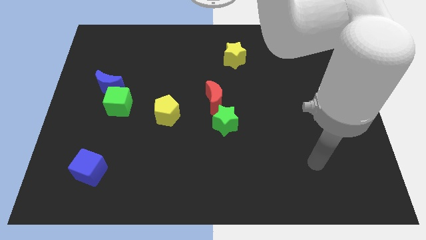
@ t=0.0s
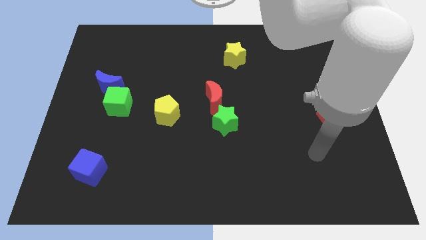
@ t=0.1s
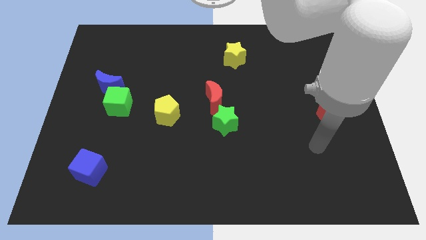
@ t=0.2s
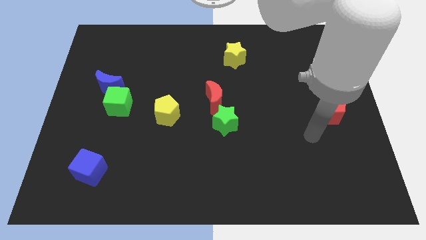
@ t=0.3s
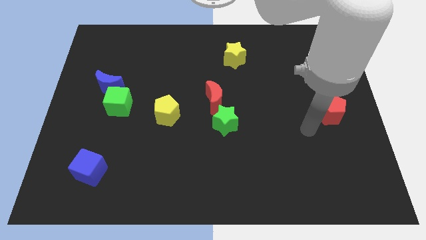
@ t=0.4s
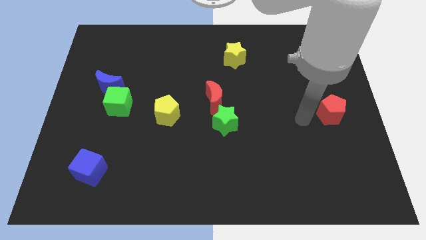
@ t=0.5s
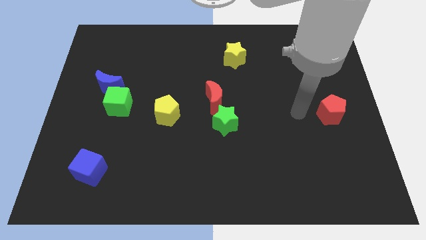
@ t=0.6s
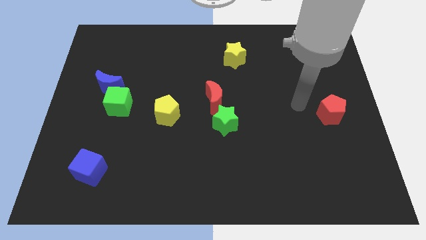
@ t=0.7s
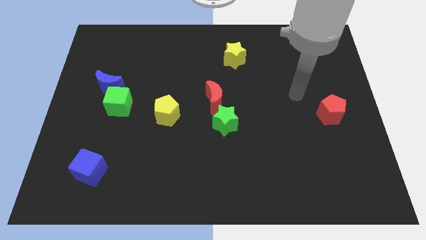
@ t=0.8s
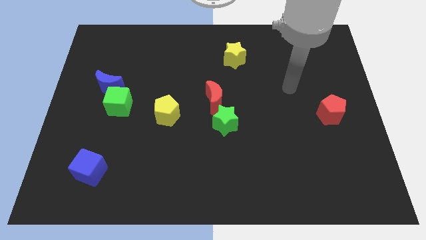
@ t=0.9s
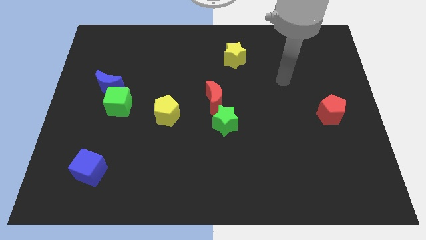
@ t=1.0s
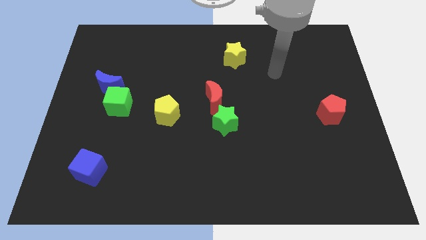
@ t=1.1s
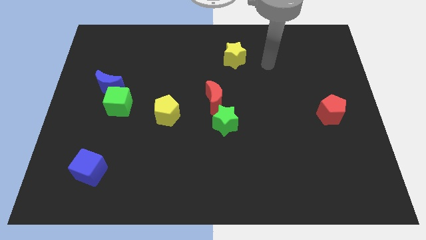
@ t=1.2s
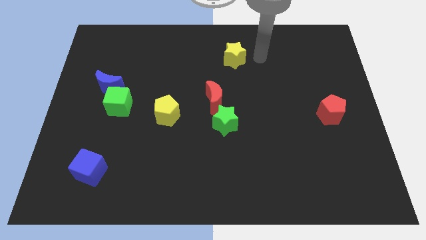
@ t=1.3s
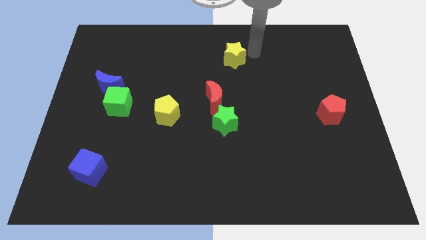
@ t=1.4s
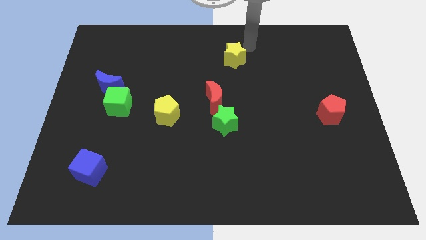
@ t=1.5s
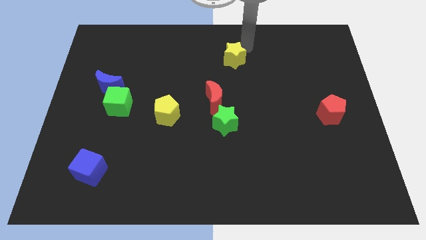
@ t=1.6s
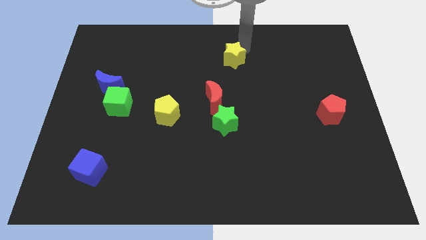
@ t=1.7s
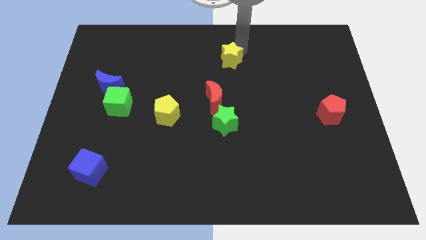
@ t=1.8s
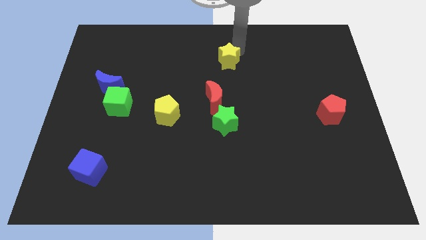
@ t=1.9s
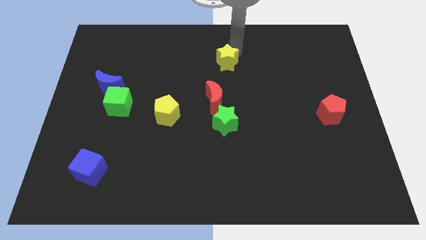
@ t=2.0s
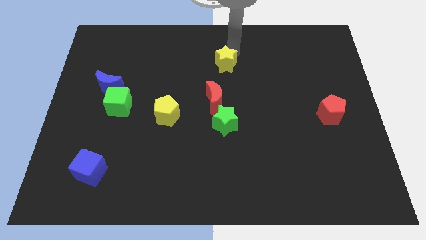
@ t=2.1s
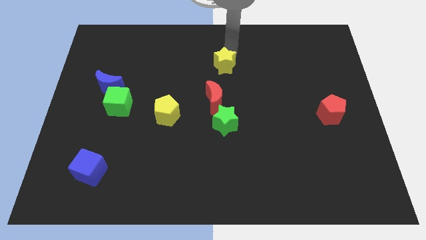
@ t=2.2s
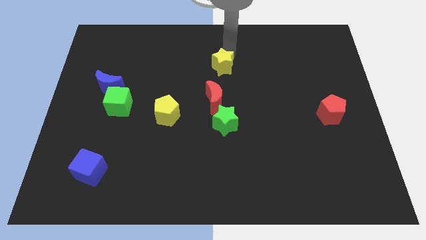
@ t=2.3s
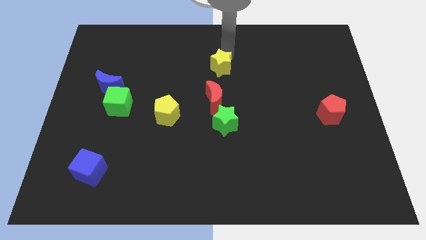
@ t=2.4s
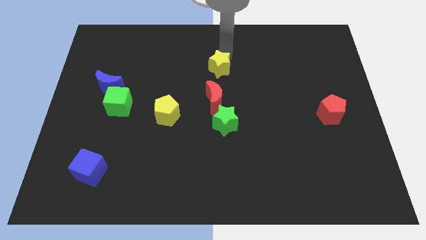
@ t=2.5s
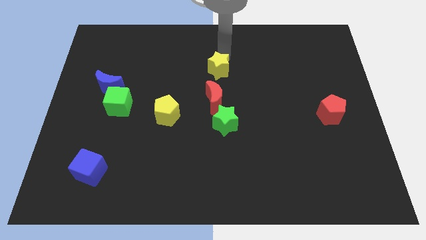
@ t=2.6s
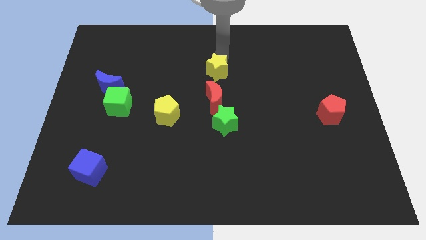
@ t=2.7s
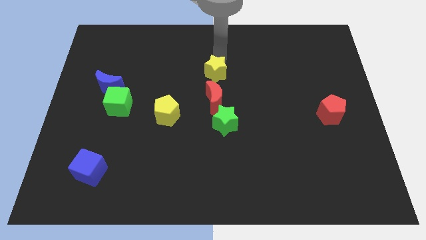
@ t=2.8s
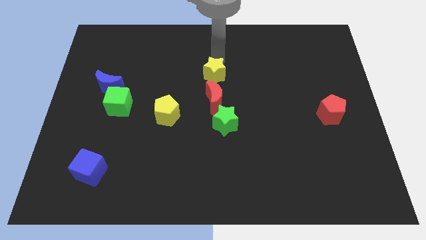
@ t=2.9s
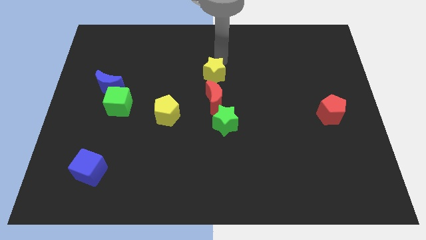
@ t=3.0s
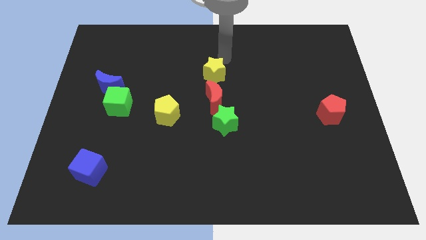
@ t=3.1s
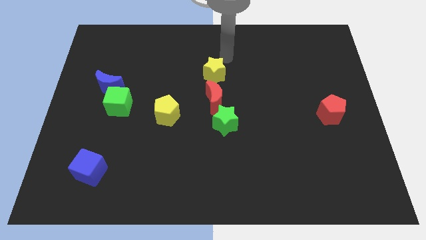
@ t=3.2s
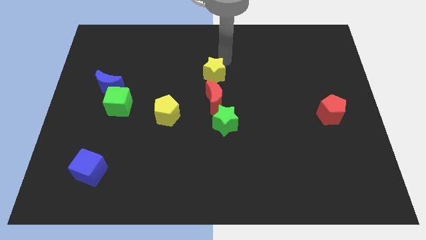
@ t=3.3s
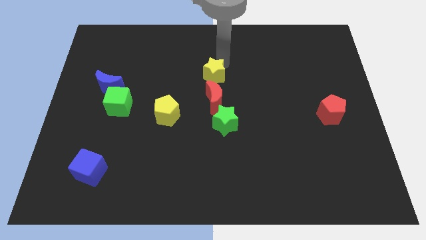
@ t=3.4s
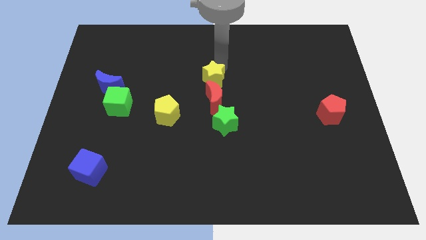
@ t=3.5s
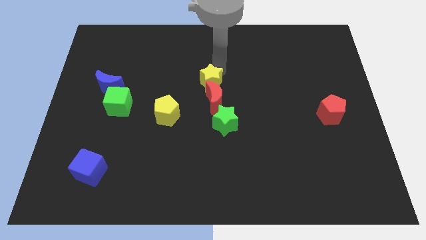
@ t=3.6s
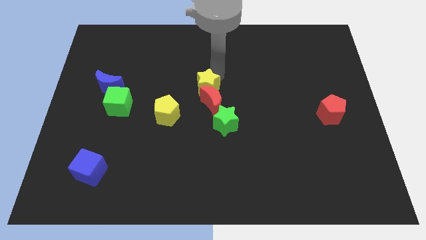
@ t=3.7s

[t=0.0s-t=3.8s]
push the yellow star to the top right of the yellow pentagon

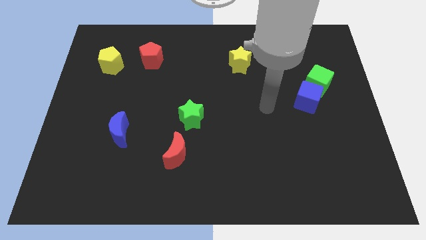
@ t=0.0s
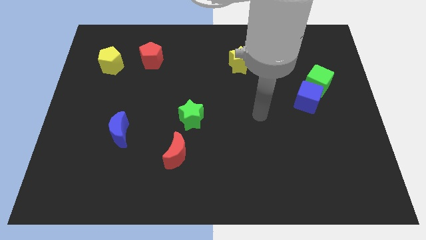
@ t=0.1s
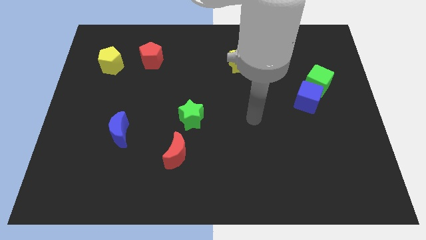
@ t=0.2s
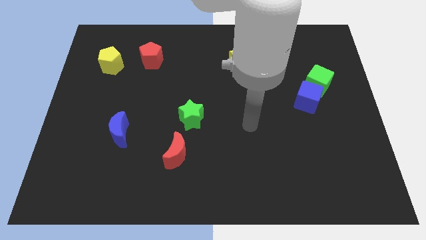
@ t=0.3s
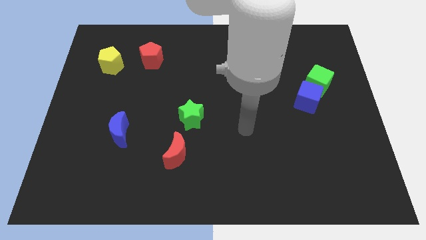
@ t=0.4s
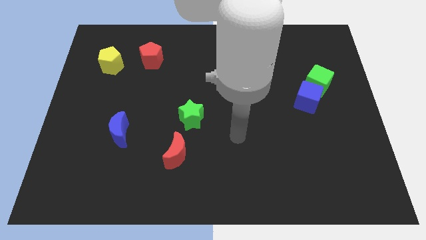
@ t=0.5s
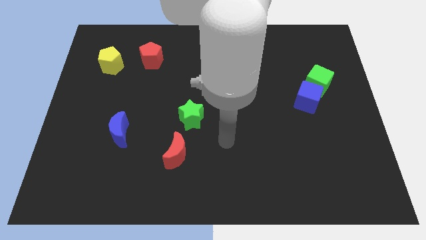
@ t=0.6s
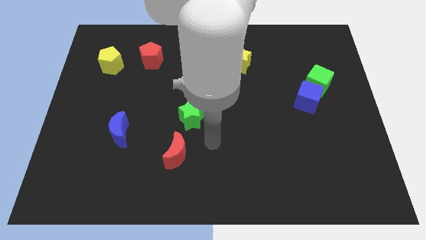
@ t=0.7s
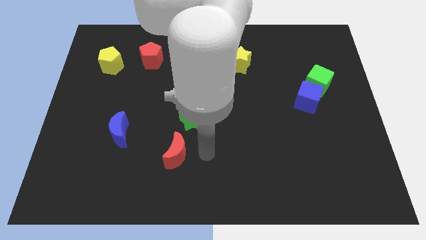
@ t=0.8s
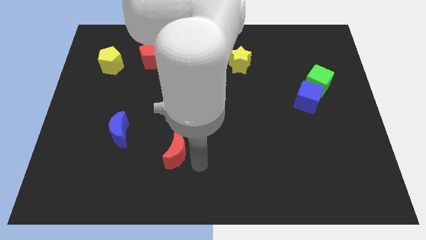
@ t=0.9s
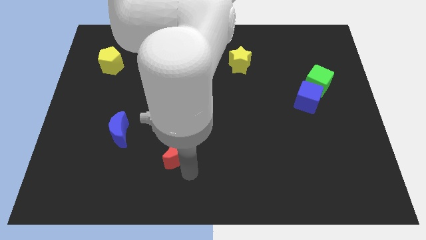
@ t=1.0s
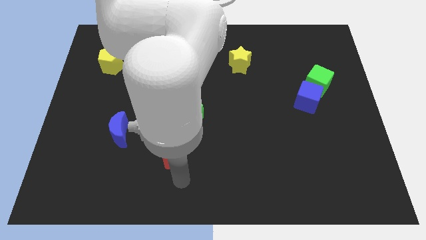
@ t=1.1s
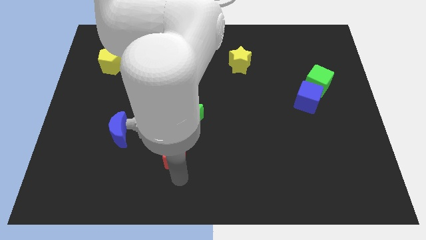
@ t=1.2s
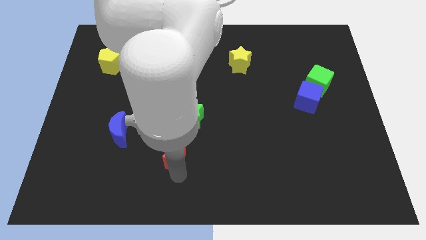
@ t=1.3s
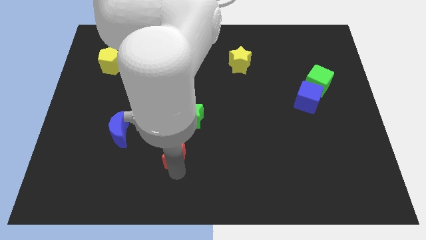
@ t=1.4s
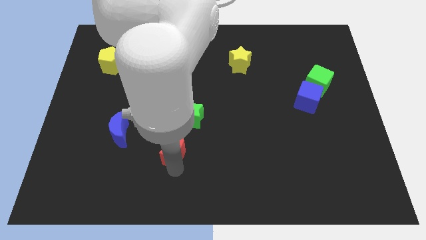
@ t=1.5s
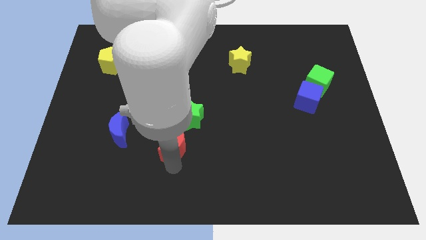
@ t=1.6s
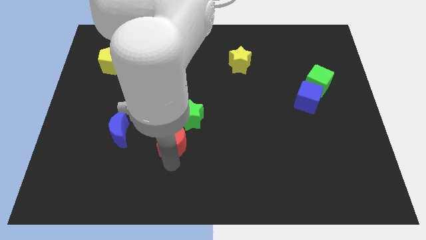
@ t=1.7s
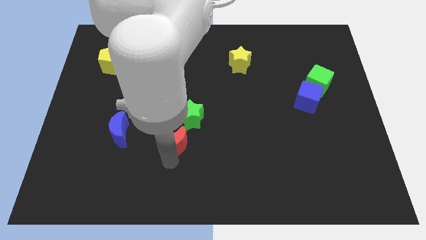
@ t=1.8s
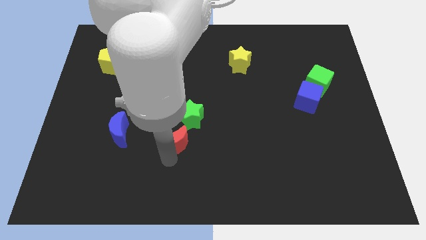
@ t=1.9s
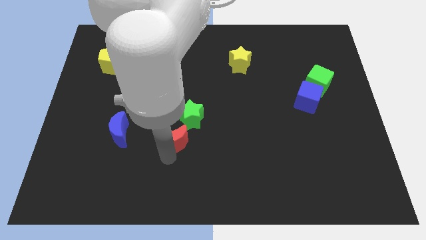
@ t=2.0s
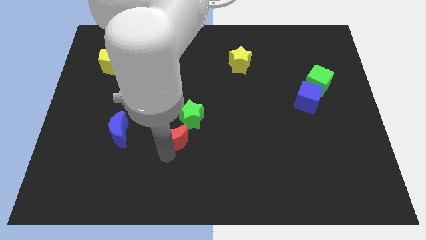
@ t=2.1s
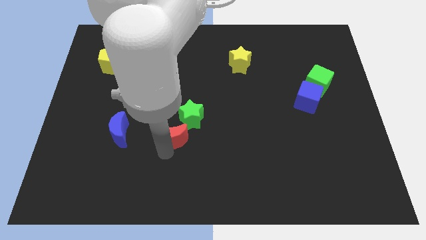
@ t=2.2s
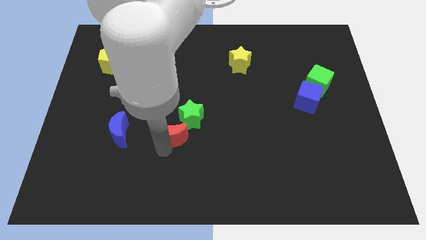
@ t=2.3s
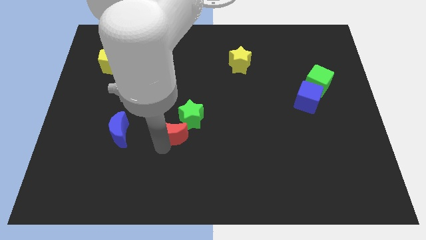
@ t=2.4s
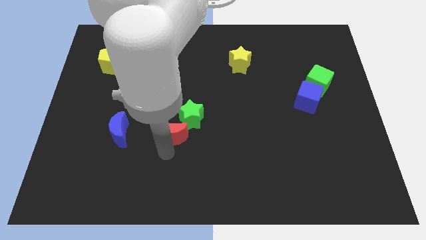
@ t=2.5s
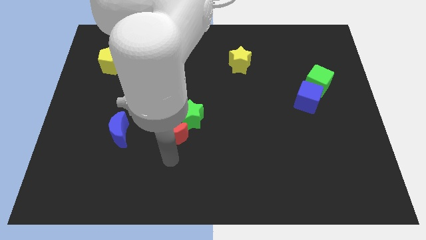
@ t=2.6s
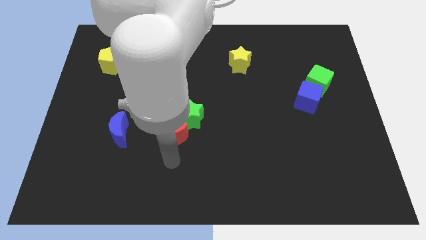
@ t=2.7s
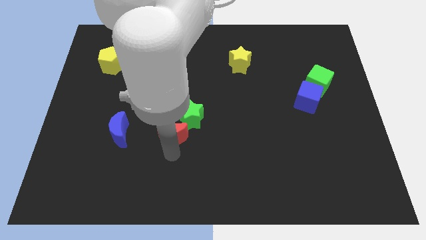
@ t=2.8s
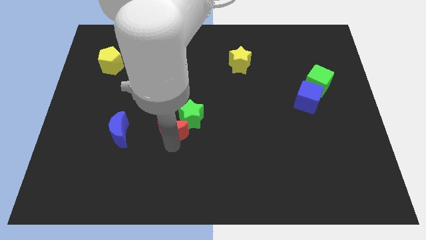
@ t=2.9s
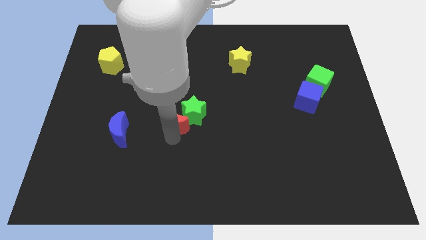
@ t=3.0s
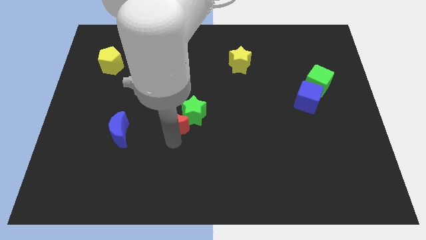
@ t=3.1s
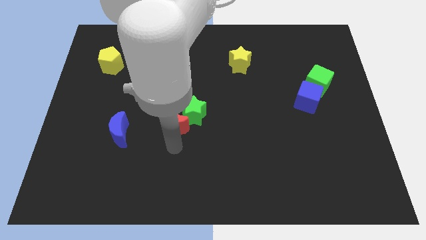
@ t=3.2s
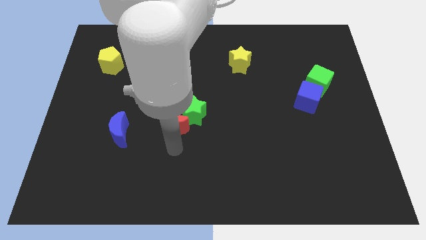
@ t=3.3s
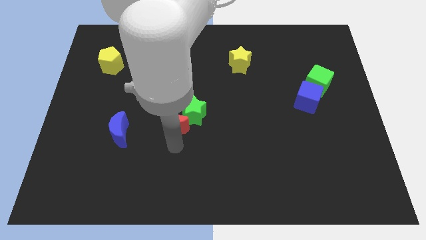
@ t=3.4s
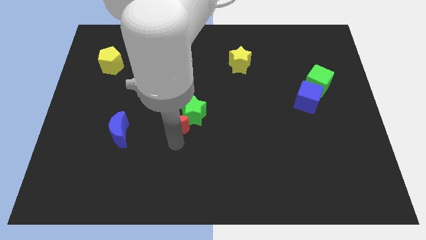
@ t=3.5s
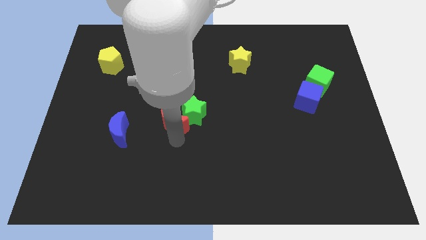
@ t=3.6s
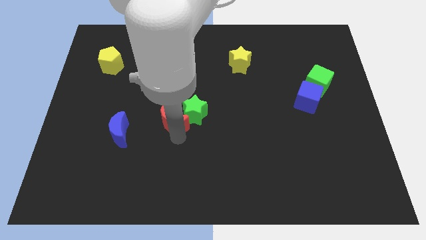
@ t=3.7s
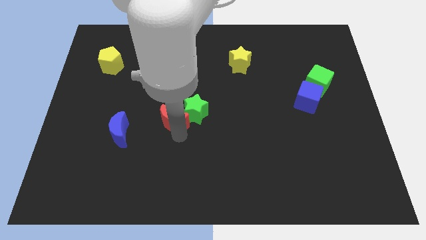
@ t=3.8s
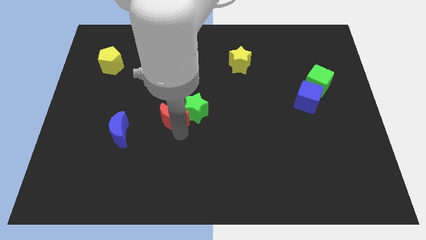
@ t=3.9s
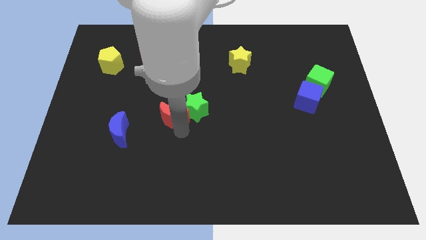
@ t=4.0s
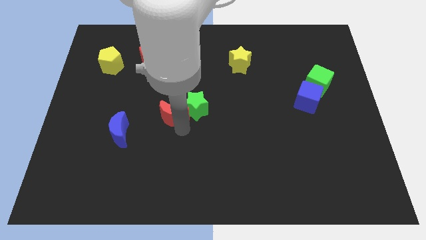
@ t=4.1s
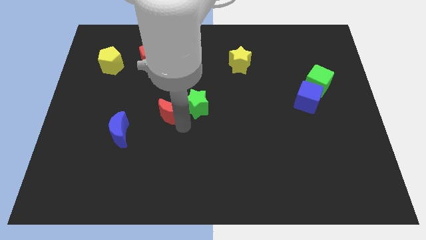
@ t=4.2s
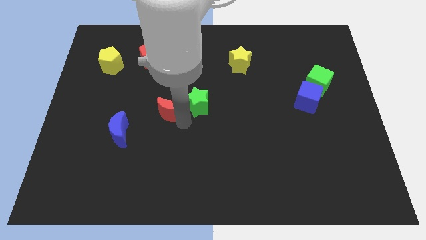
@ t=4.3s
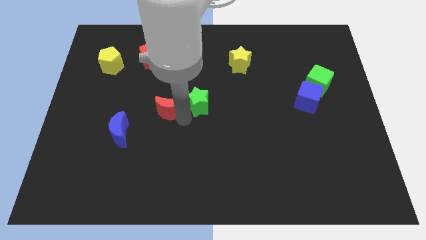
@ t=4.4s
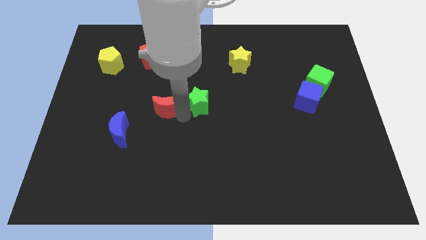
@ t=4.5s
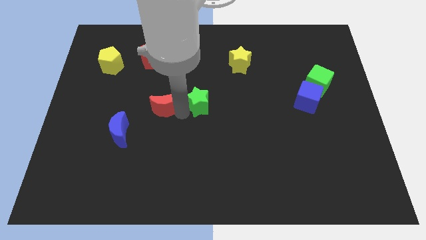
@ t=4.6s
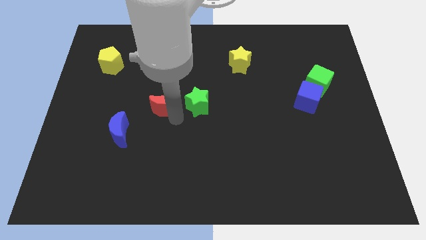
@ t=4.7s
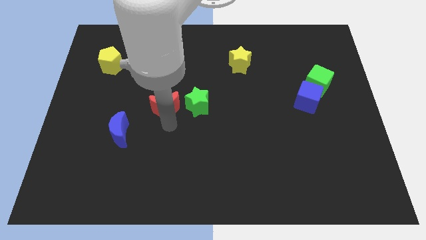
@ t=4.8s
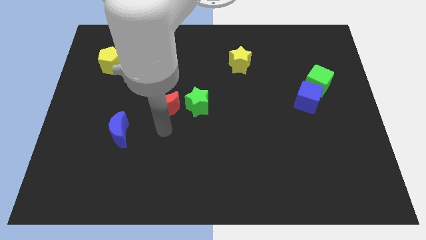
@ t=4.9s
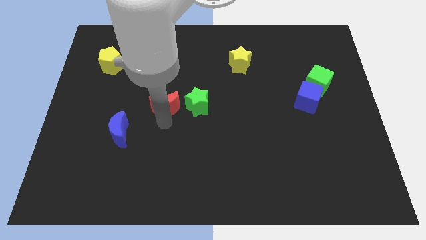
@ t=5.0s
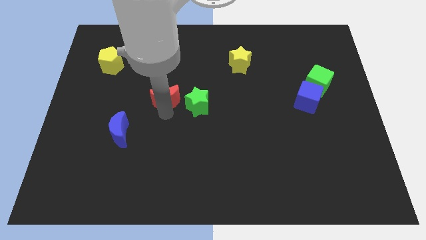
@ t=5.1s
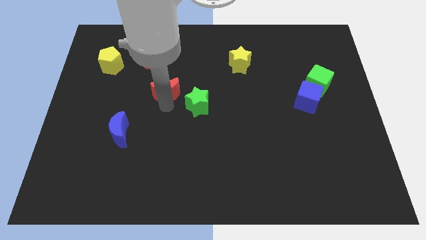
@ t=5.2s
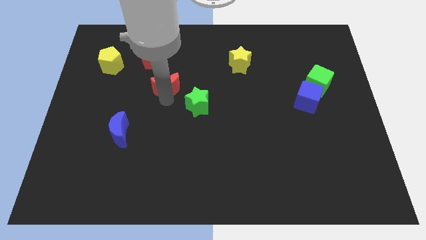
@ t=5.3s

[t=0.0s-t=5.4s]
put the red moon to the bottom right of the red pentagon
